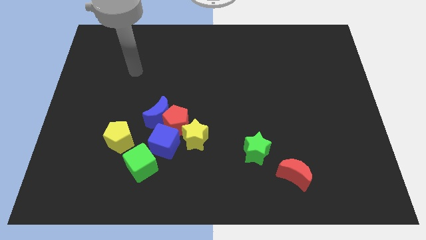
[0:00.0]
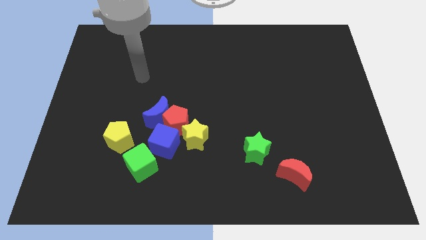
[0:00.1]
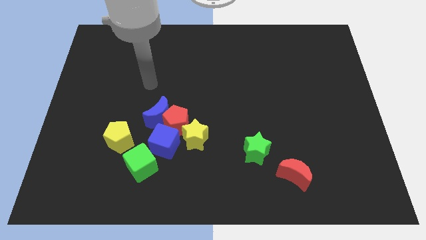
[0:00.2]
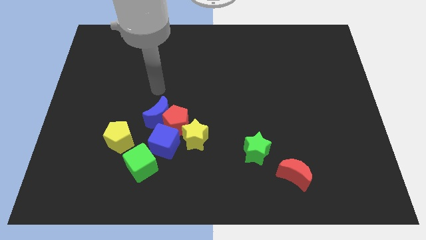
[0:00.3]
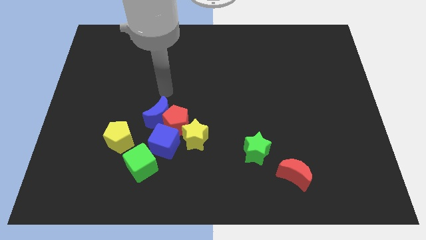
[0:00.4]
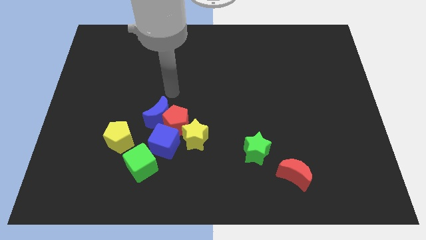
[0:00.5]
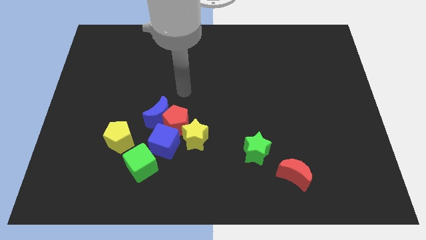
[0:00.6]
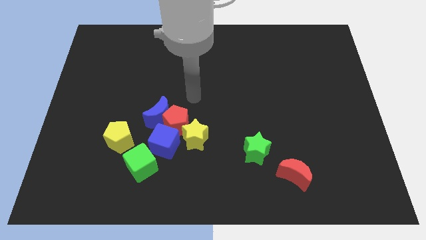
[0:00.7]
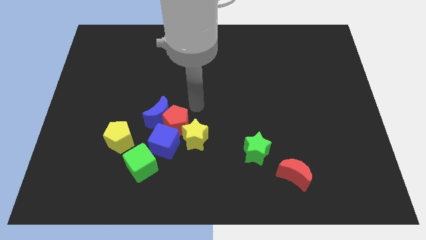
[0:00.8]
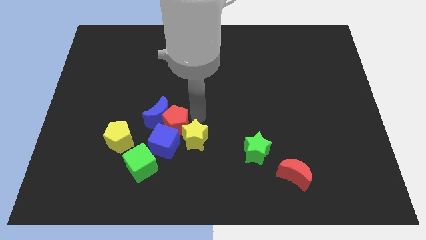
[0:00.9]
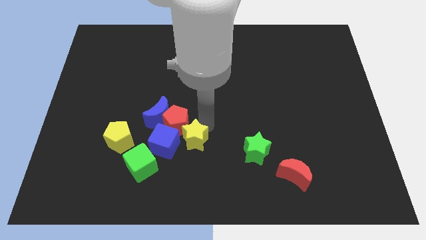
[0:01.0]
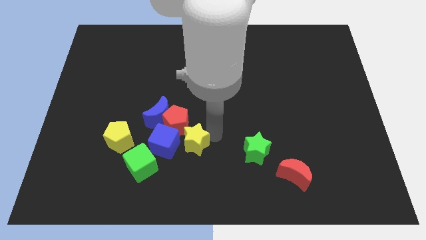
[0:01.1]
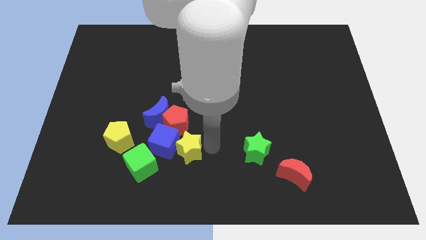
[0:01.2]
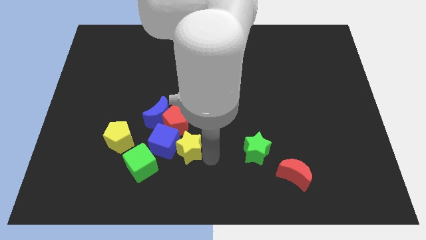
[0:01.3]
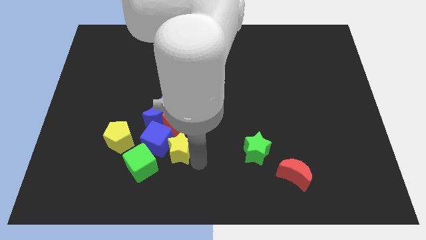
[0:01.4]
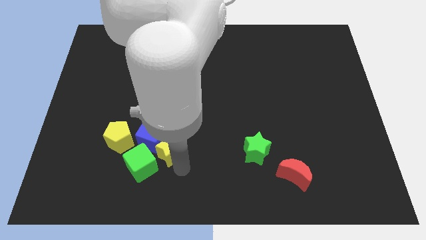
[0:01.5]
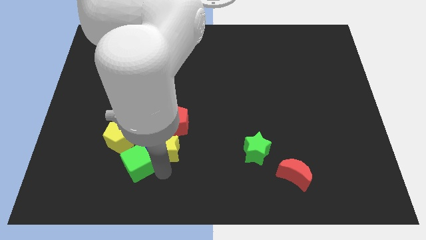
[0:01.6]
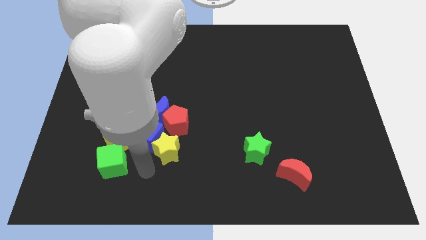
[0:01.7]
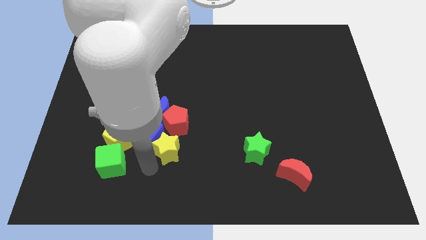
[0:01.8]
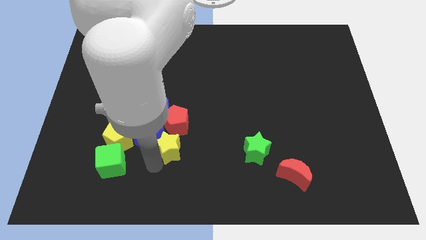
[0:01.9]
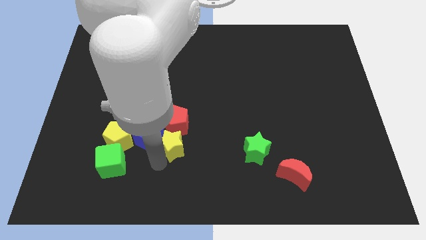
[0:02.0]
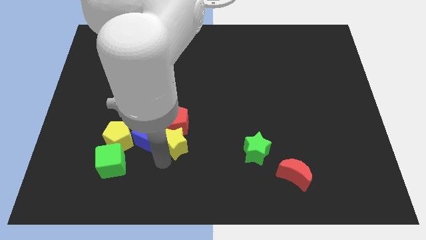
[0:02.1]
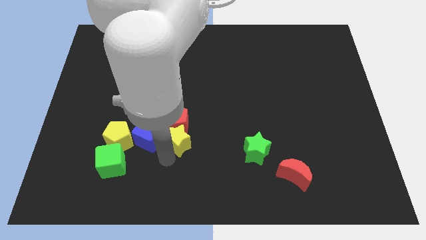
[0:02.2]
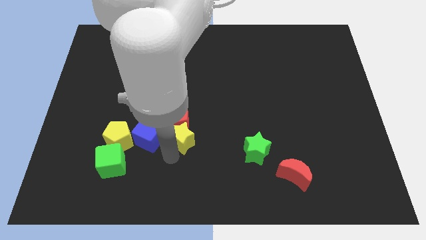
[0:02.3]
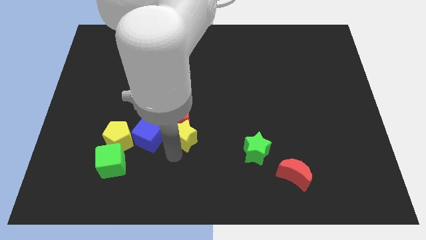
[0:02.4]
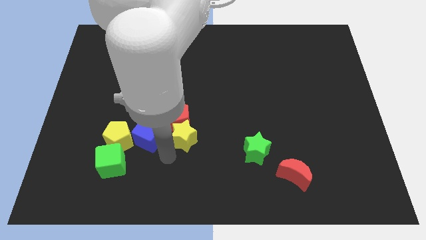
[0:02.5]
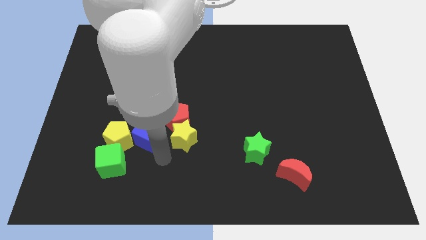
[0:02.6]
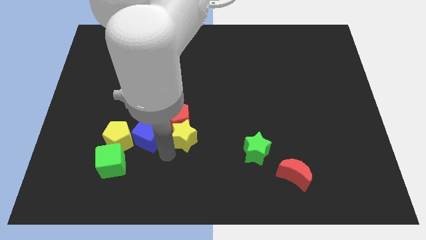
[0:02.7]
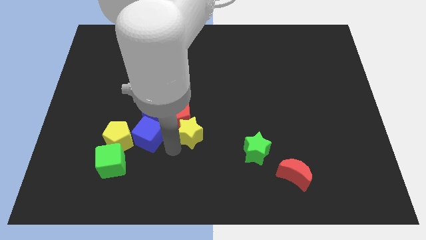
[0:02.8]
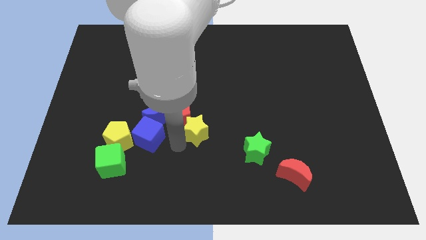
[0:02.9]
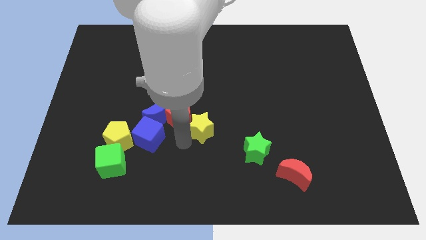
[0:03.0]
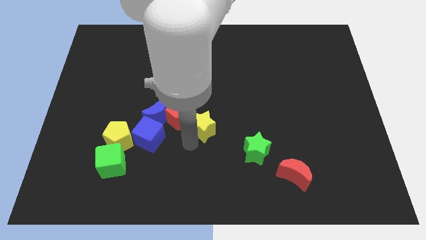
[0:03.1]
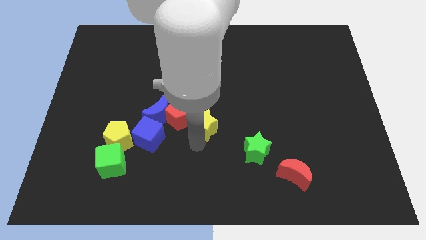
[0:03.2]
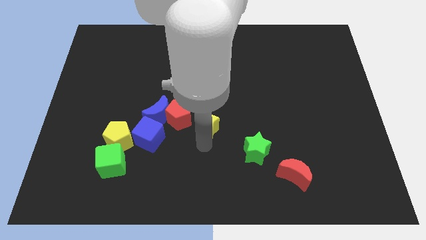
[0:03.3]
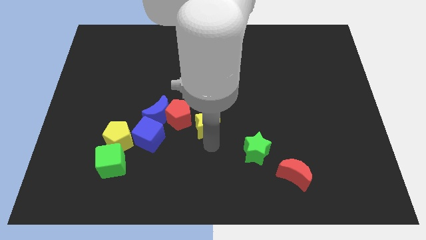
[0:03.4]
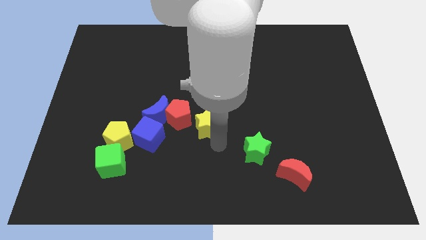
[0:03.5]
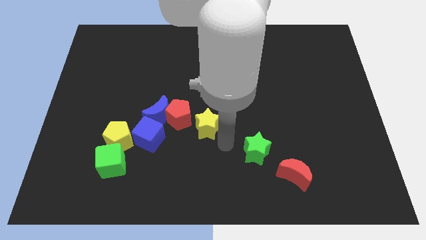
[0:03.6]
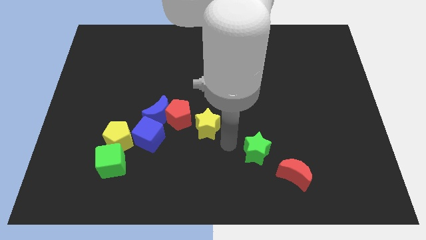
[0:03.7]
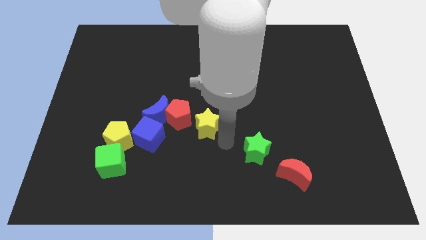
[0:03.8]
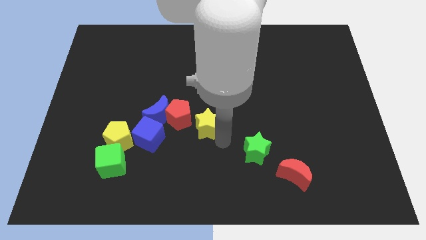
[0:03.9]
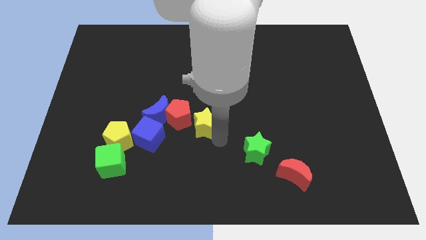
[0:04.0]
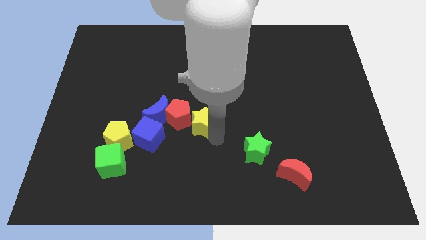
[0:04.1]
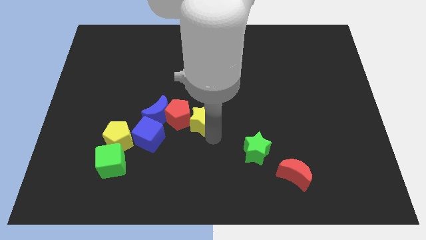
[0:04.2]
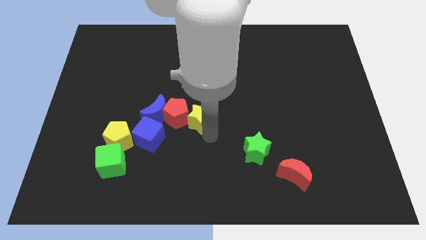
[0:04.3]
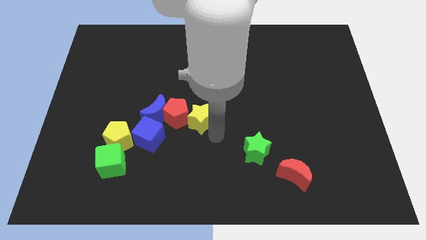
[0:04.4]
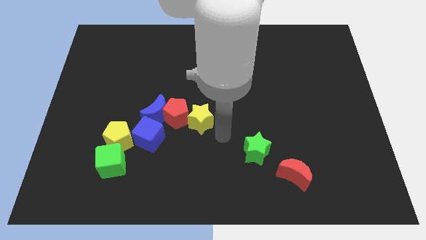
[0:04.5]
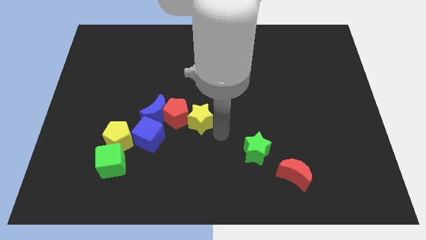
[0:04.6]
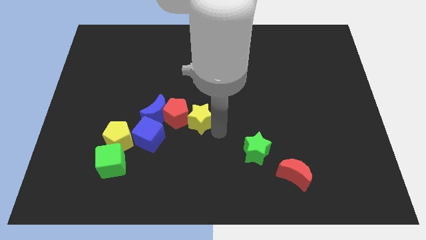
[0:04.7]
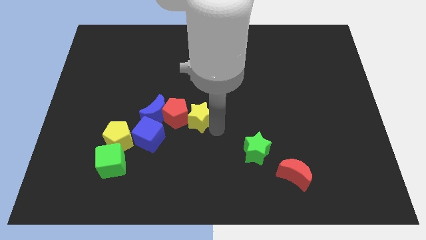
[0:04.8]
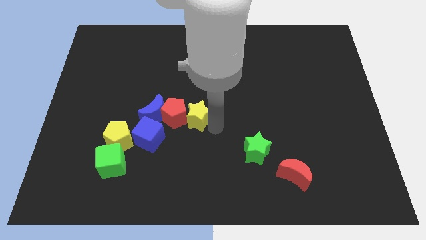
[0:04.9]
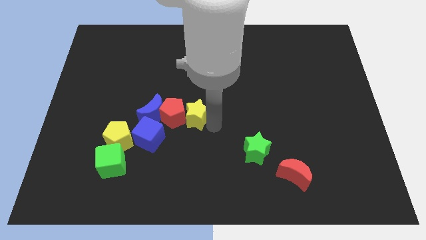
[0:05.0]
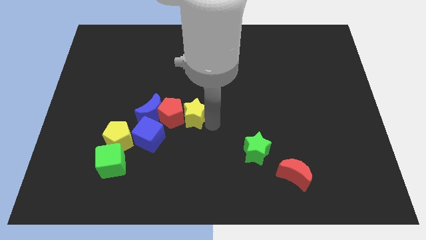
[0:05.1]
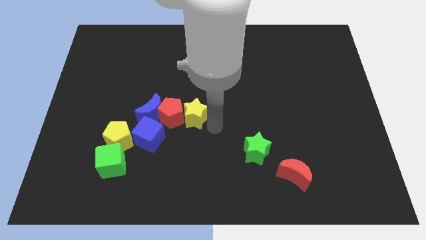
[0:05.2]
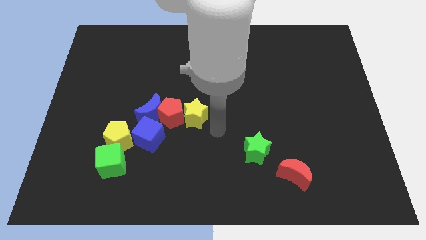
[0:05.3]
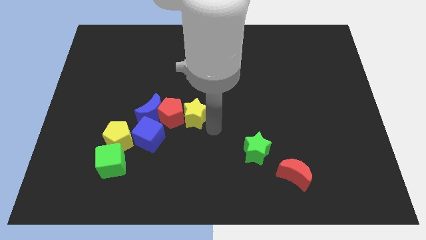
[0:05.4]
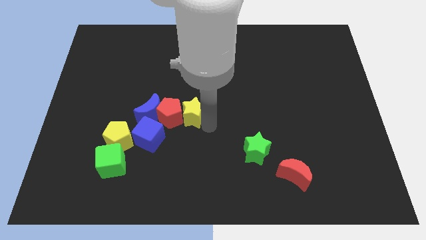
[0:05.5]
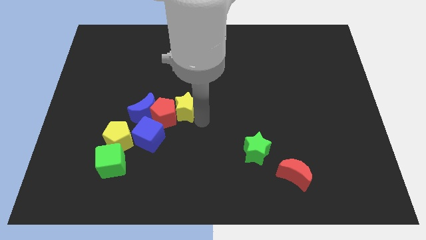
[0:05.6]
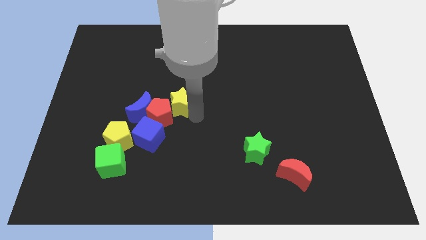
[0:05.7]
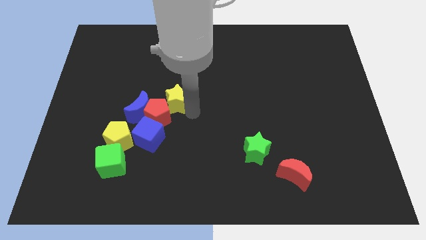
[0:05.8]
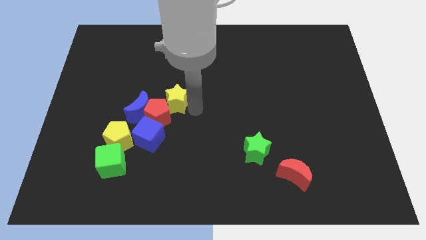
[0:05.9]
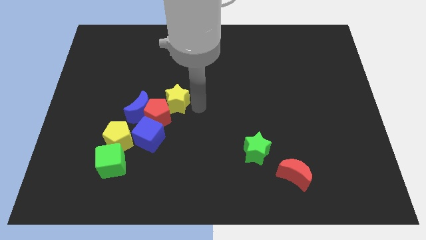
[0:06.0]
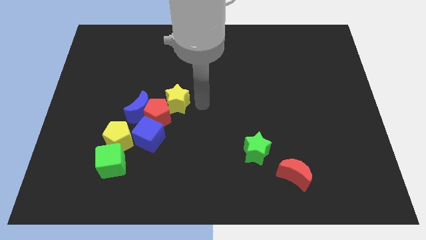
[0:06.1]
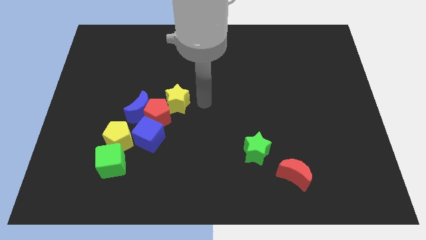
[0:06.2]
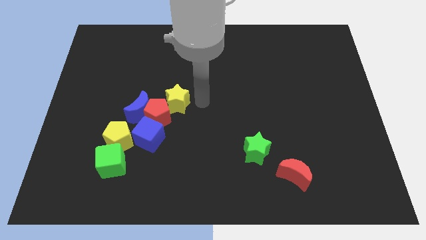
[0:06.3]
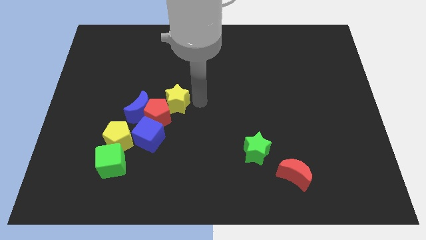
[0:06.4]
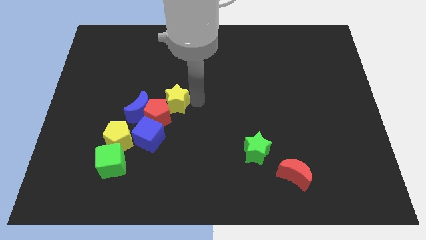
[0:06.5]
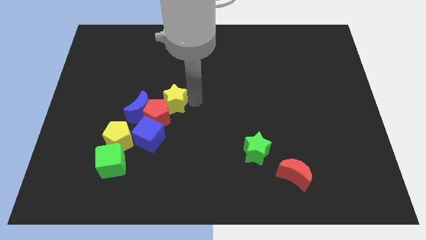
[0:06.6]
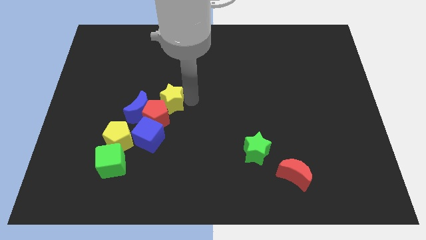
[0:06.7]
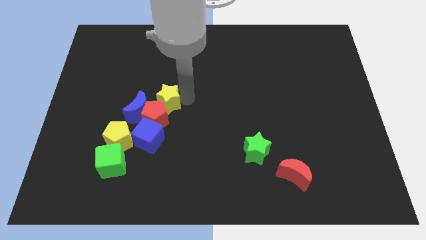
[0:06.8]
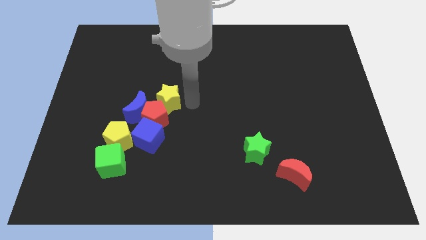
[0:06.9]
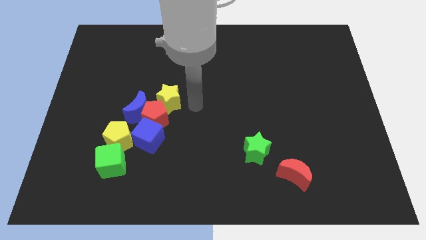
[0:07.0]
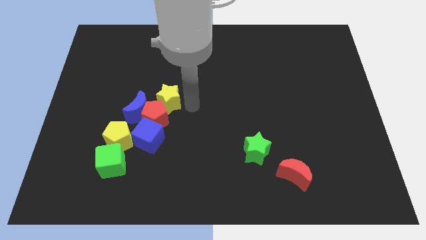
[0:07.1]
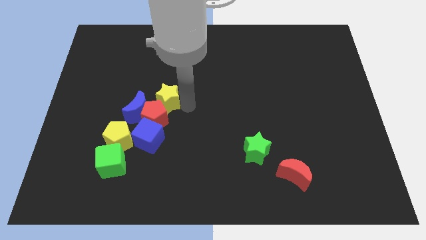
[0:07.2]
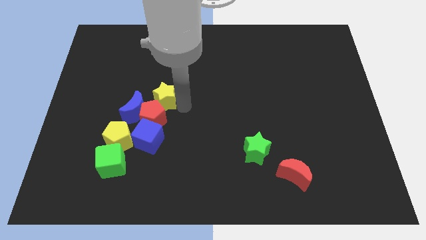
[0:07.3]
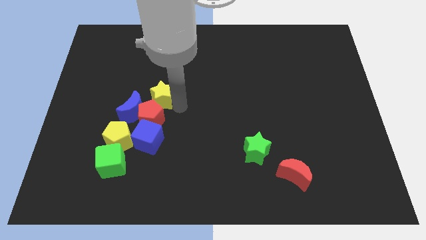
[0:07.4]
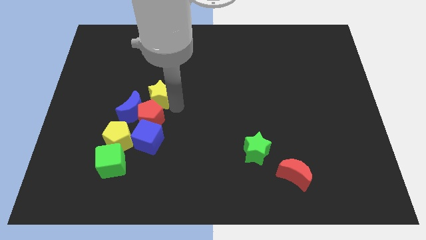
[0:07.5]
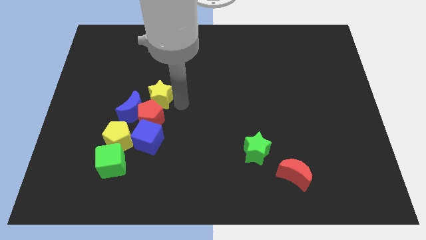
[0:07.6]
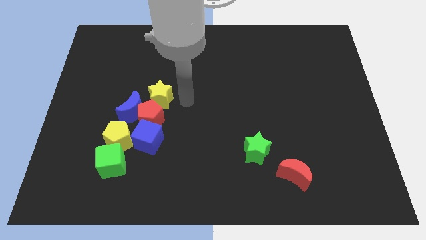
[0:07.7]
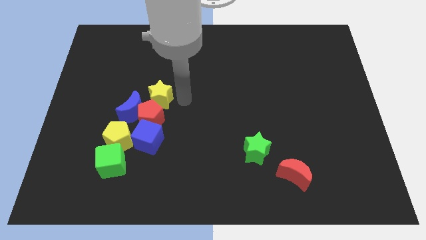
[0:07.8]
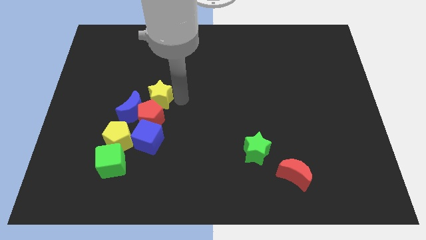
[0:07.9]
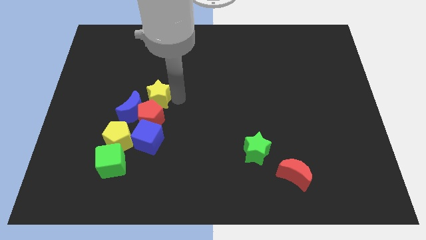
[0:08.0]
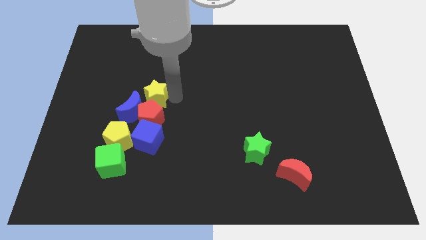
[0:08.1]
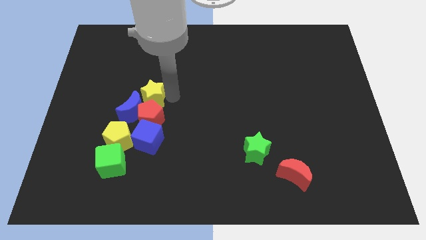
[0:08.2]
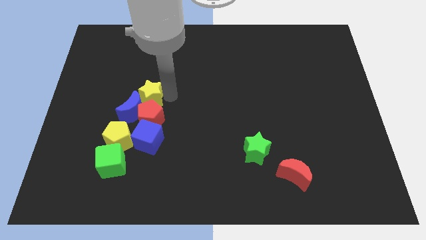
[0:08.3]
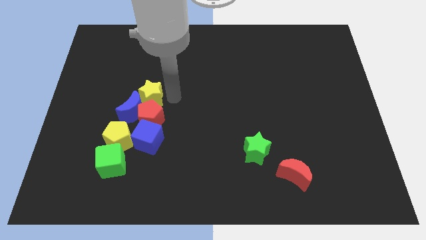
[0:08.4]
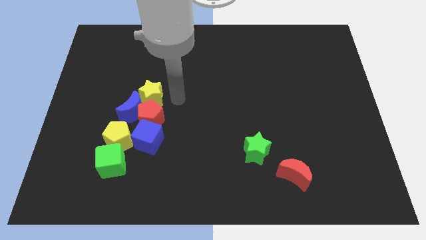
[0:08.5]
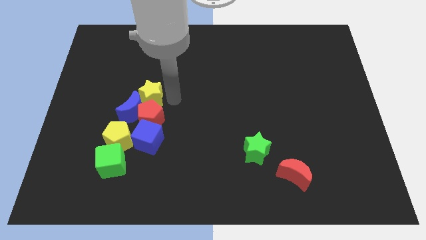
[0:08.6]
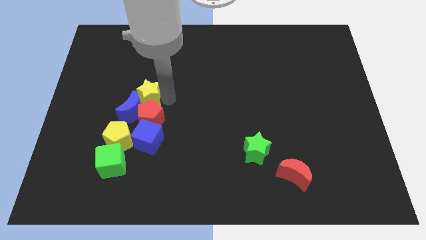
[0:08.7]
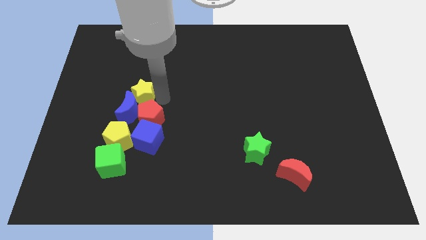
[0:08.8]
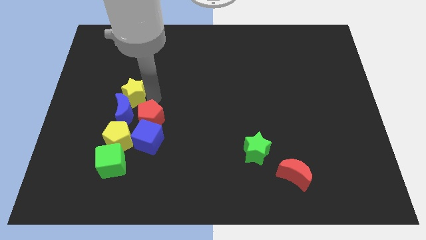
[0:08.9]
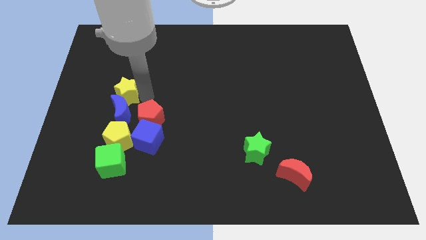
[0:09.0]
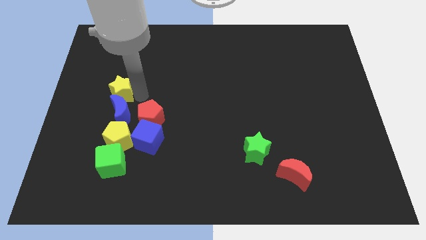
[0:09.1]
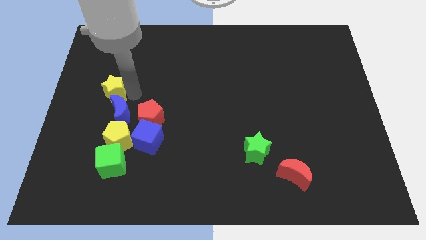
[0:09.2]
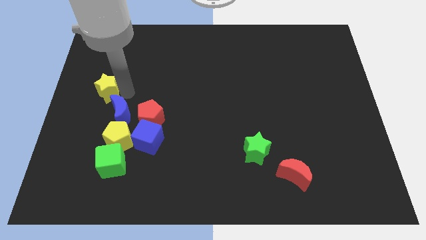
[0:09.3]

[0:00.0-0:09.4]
push the yellow star to the center left
